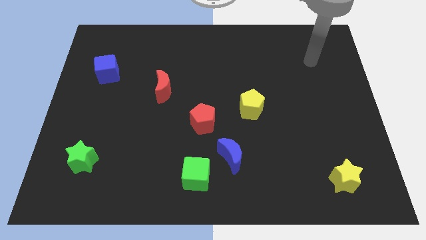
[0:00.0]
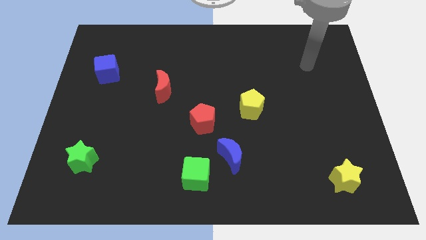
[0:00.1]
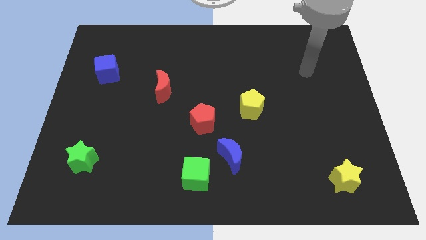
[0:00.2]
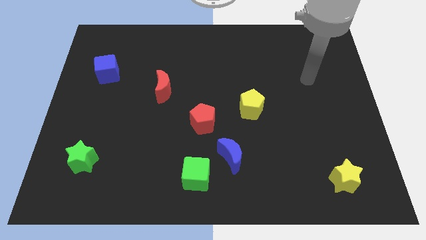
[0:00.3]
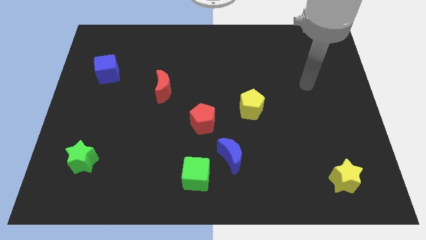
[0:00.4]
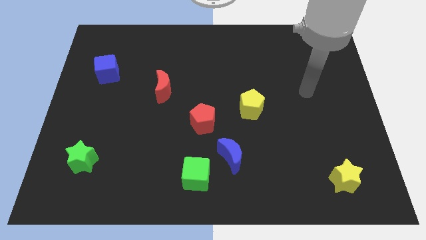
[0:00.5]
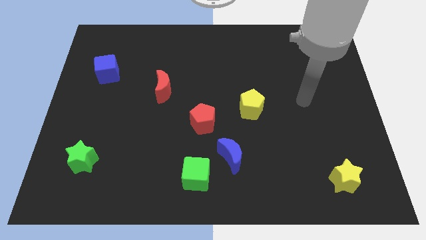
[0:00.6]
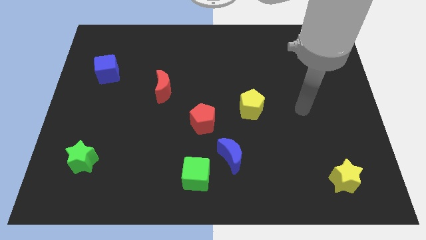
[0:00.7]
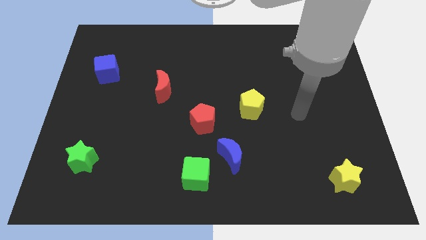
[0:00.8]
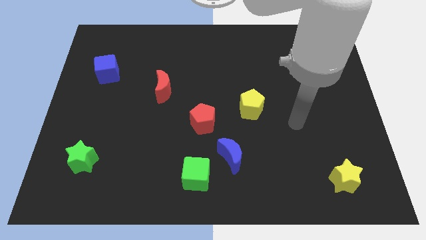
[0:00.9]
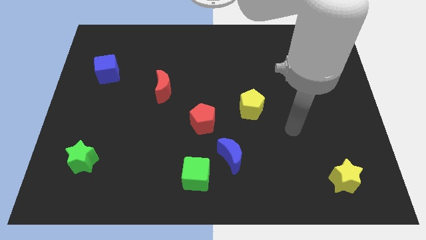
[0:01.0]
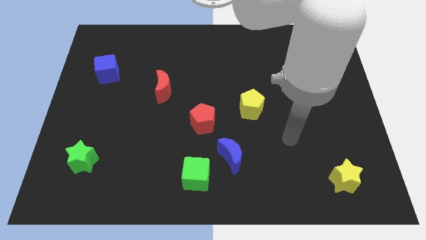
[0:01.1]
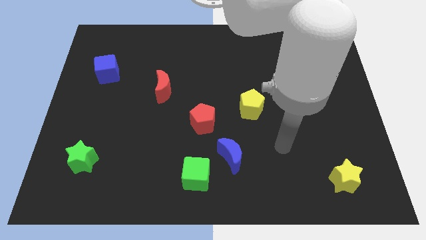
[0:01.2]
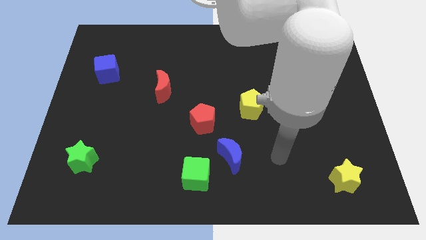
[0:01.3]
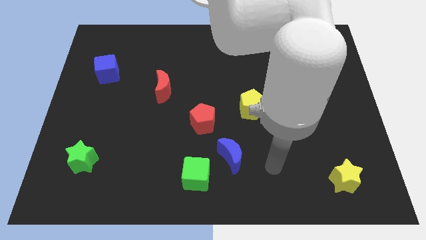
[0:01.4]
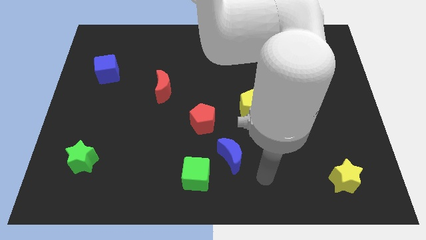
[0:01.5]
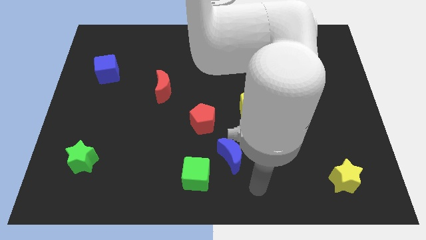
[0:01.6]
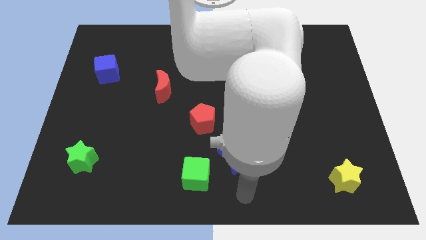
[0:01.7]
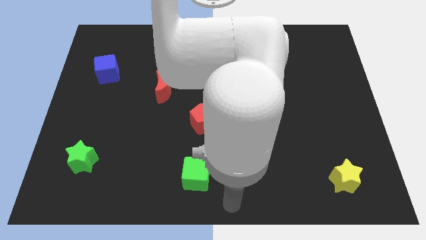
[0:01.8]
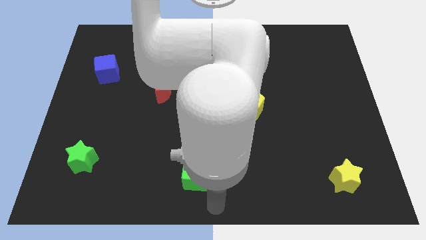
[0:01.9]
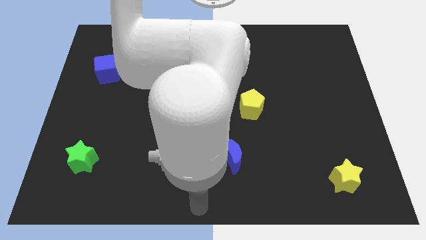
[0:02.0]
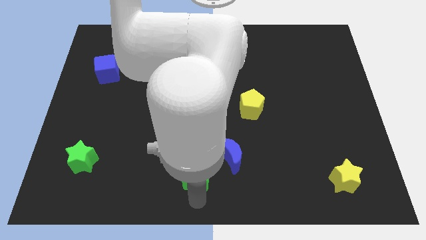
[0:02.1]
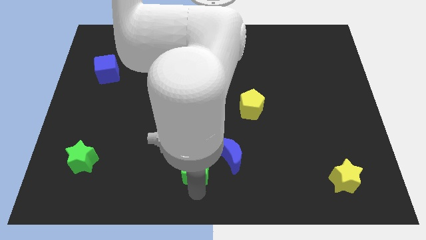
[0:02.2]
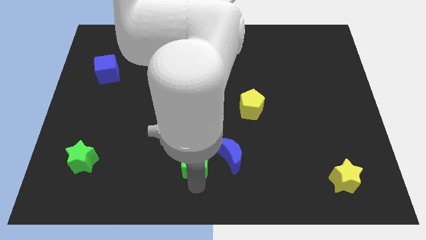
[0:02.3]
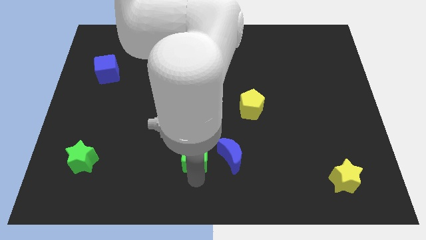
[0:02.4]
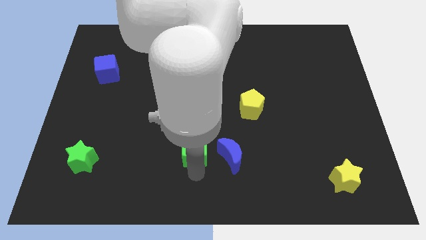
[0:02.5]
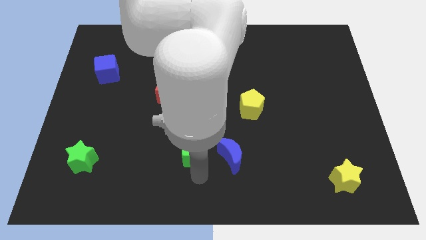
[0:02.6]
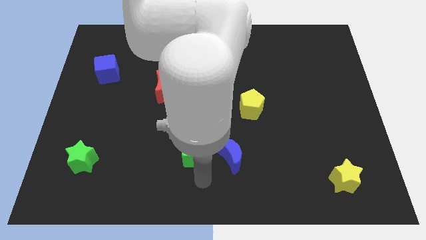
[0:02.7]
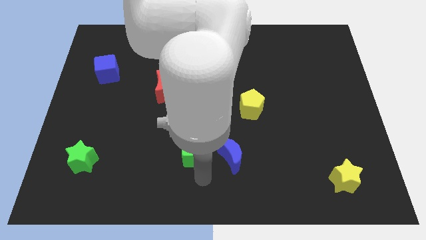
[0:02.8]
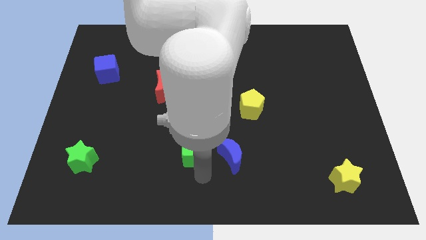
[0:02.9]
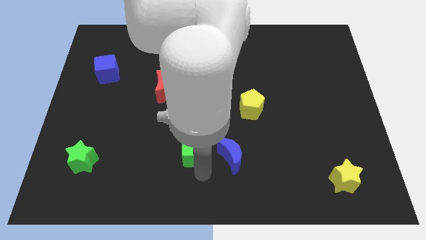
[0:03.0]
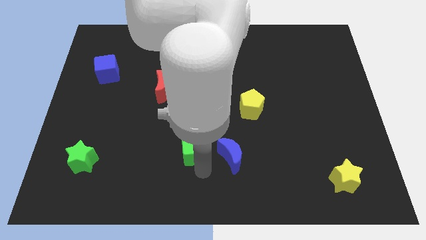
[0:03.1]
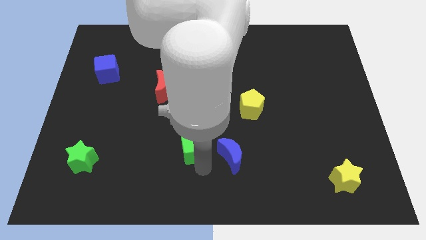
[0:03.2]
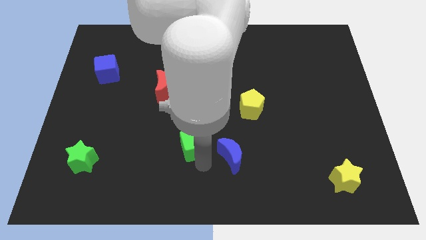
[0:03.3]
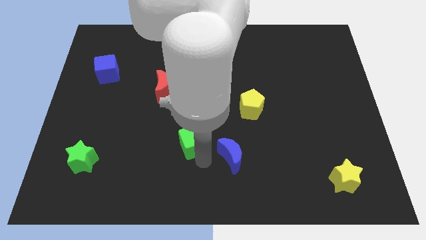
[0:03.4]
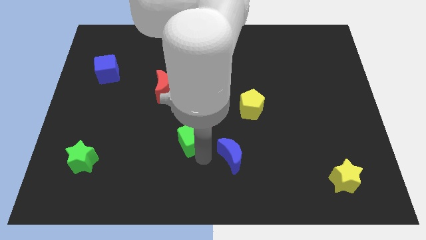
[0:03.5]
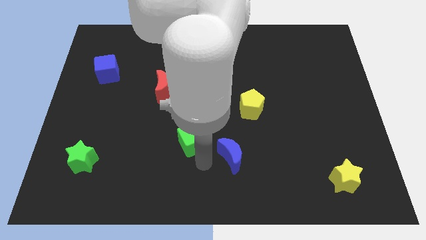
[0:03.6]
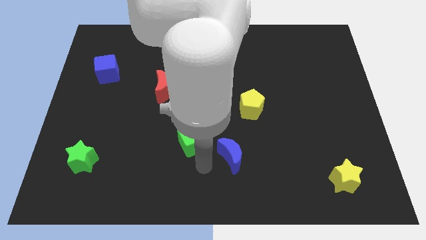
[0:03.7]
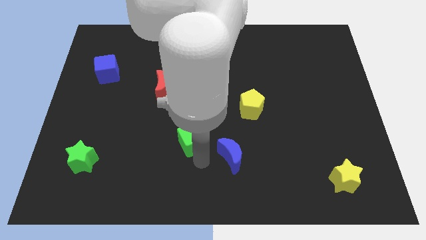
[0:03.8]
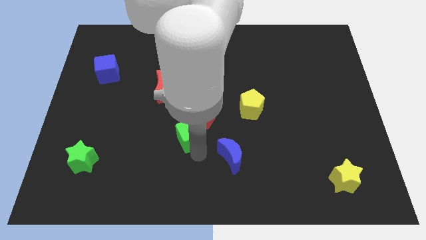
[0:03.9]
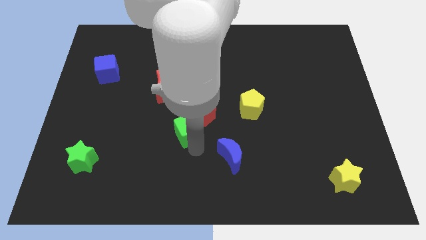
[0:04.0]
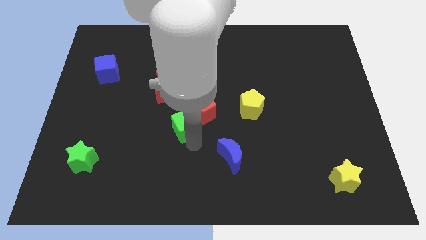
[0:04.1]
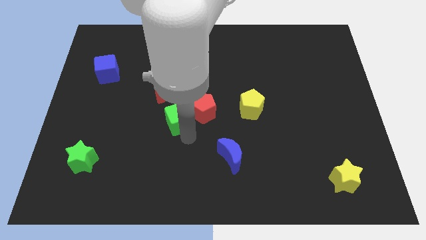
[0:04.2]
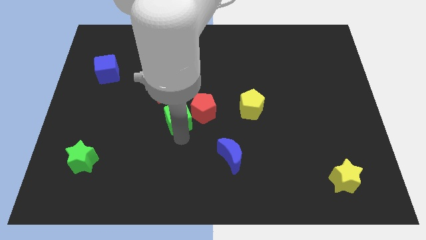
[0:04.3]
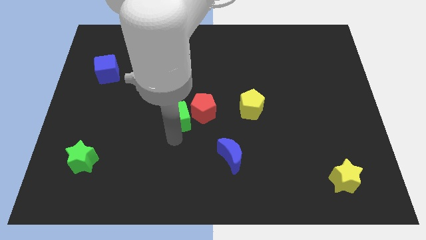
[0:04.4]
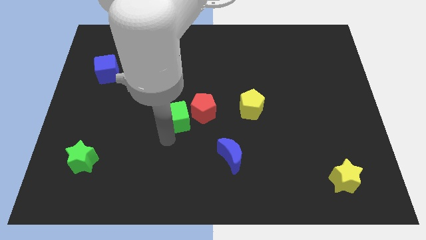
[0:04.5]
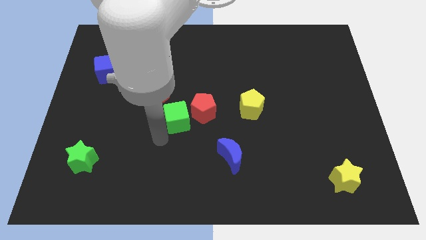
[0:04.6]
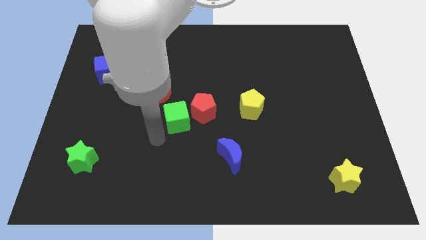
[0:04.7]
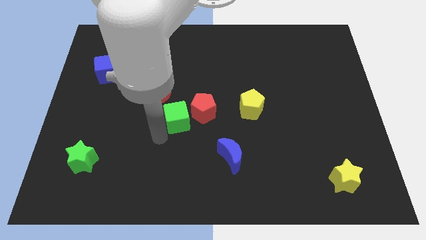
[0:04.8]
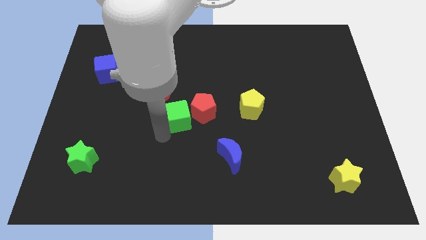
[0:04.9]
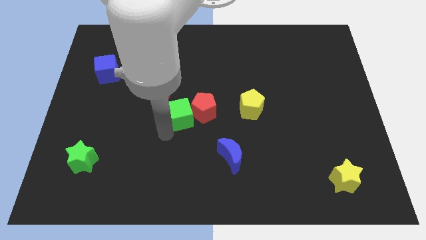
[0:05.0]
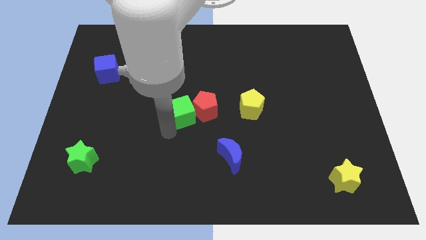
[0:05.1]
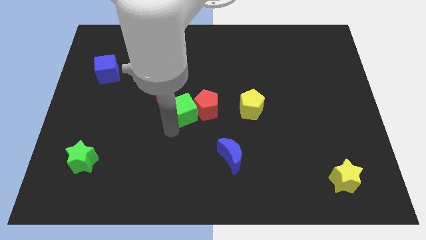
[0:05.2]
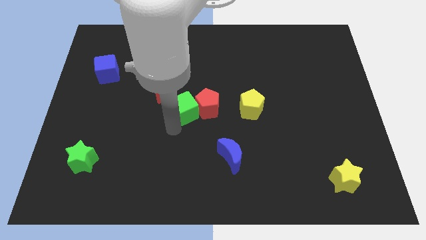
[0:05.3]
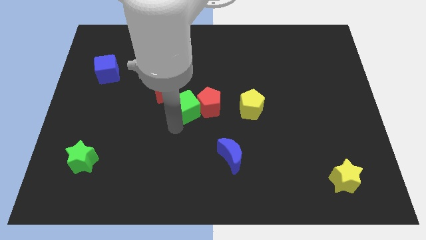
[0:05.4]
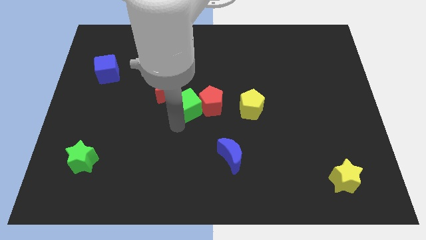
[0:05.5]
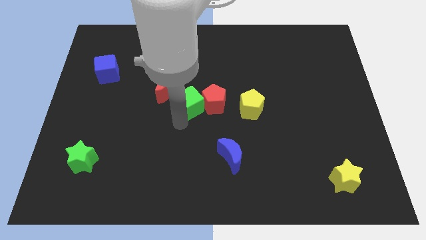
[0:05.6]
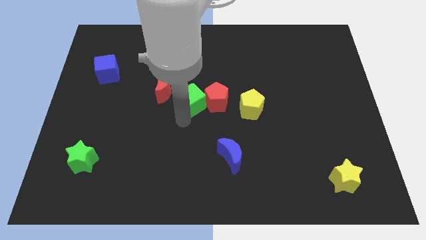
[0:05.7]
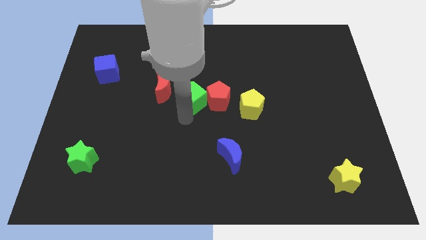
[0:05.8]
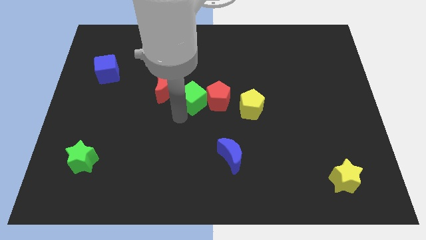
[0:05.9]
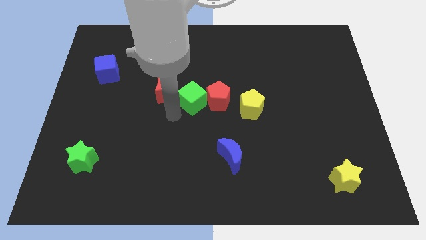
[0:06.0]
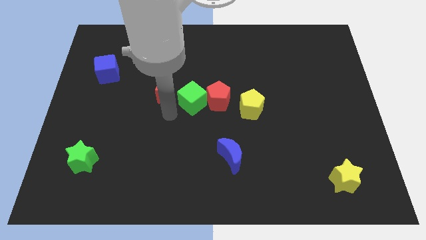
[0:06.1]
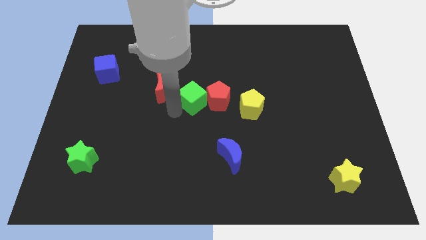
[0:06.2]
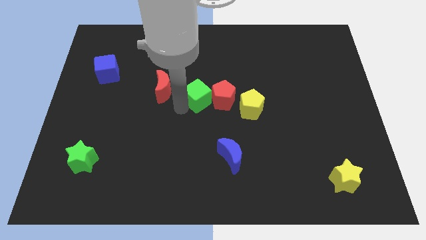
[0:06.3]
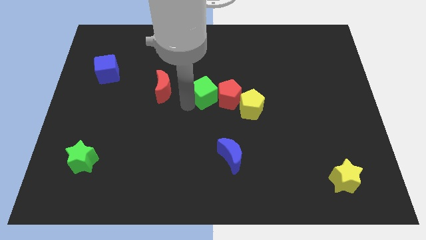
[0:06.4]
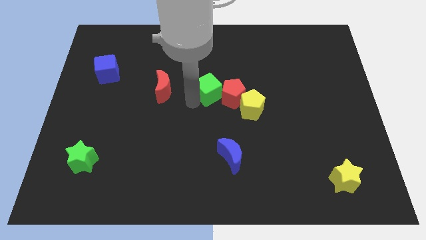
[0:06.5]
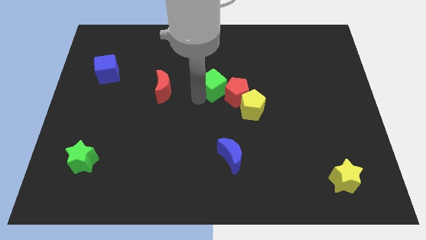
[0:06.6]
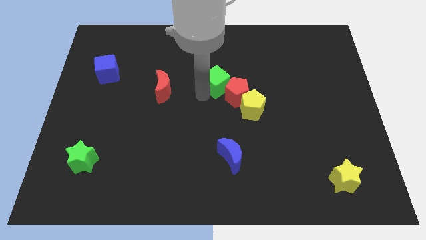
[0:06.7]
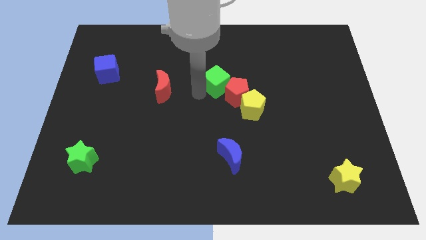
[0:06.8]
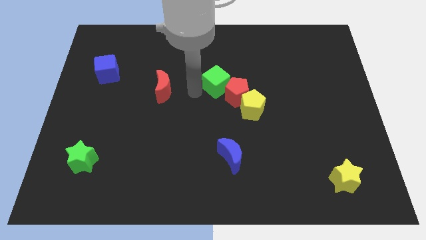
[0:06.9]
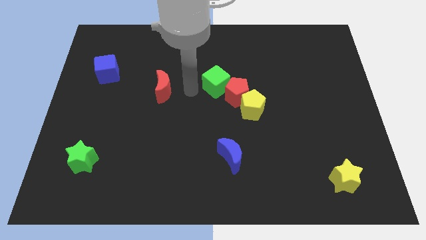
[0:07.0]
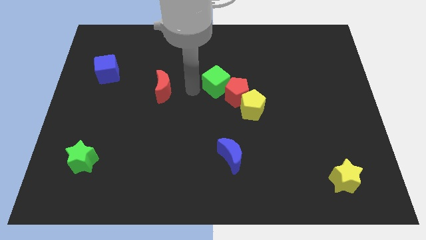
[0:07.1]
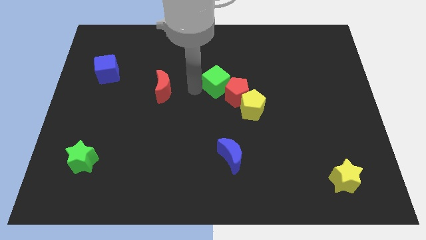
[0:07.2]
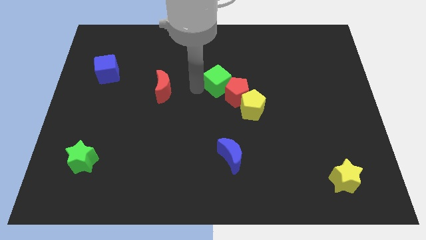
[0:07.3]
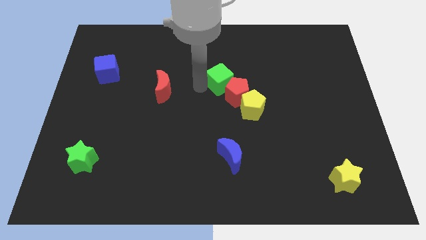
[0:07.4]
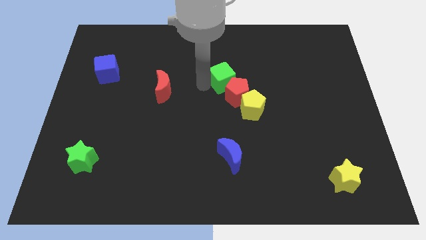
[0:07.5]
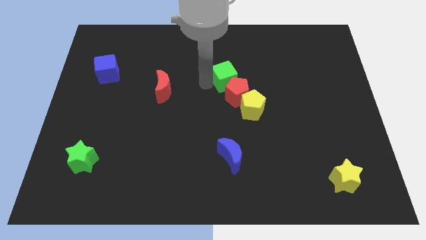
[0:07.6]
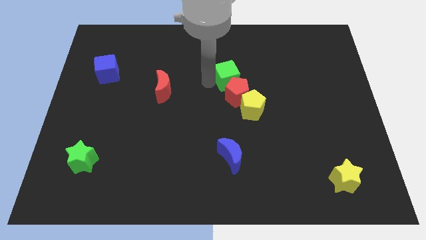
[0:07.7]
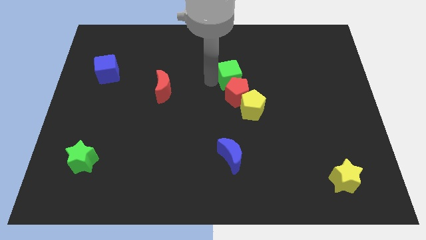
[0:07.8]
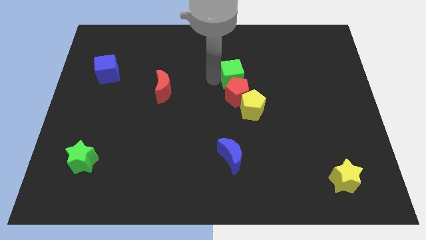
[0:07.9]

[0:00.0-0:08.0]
put the green cube above the yellow pentagon
